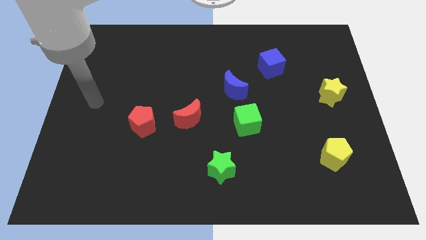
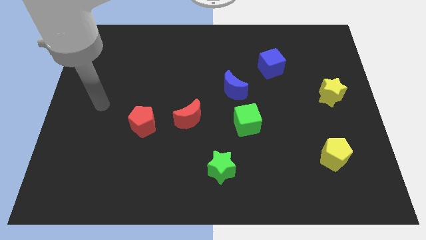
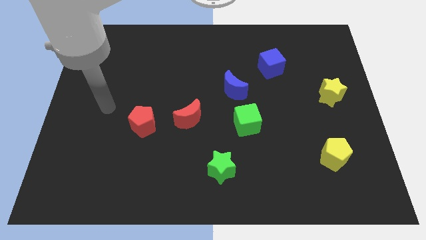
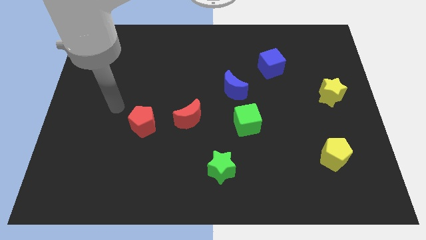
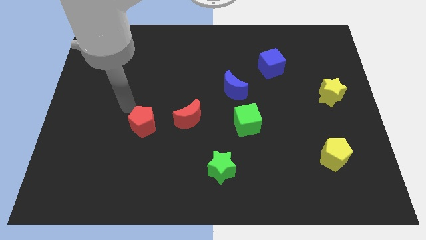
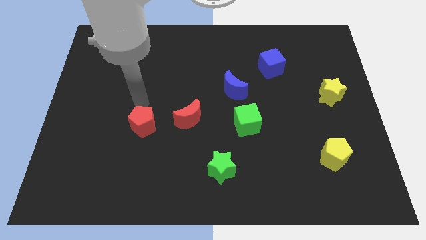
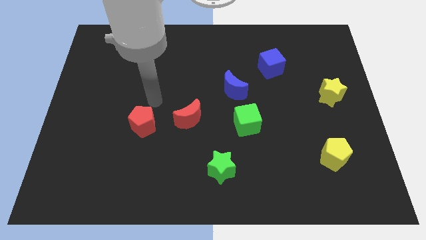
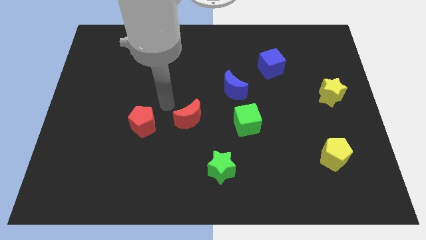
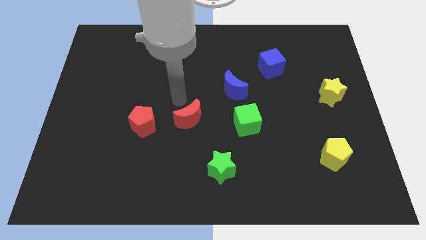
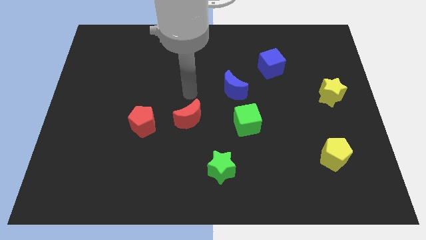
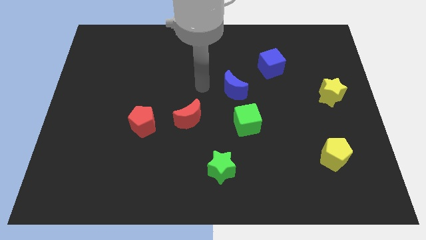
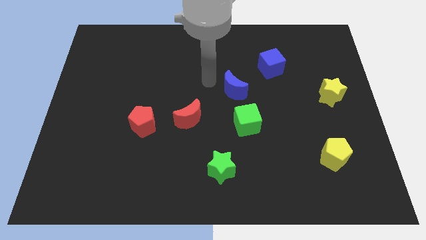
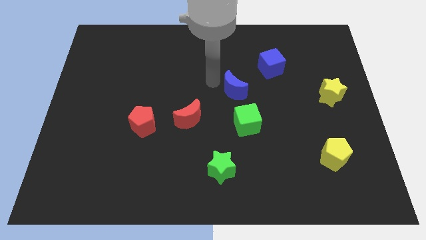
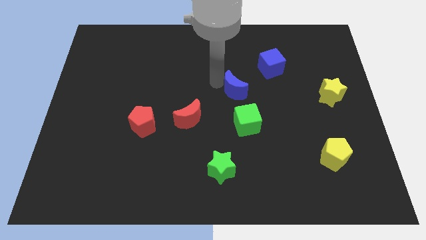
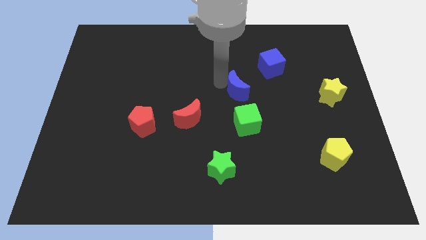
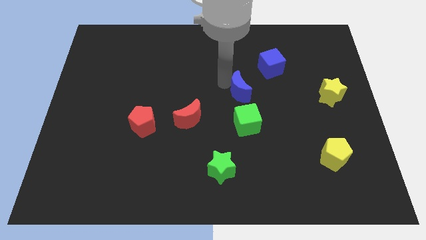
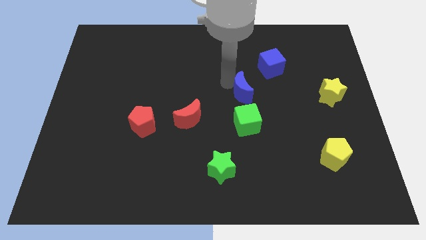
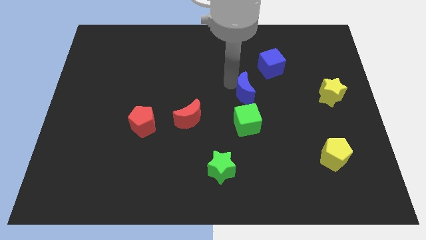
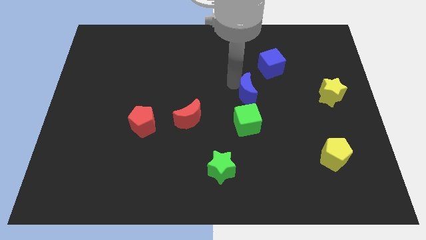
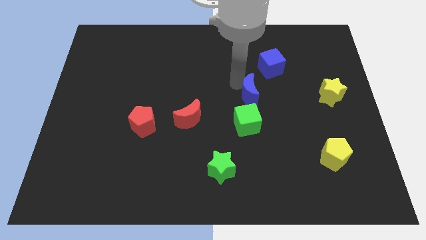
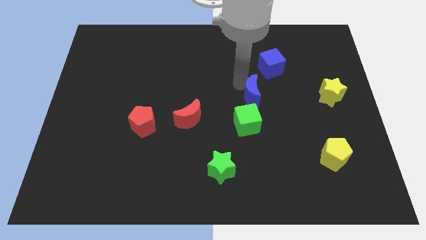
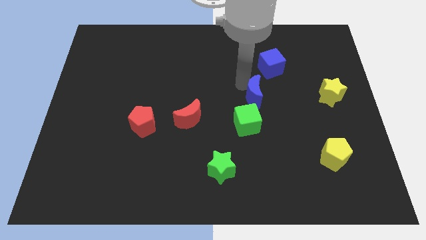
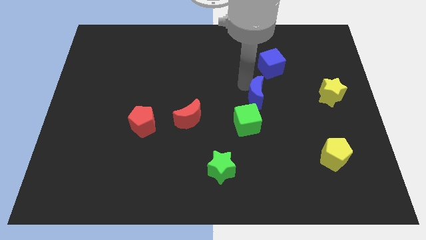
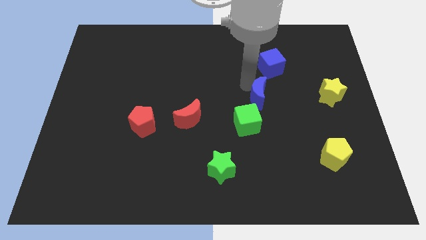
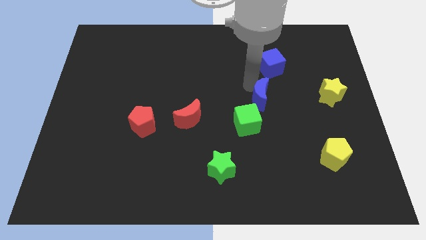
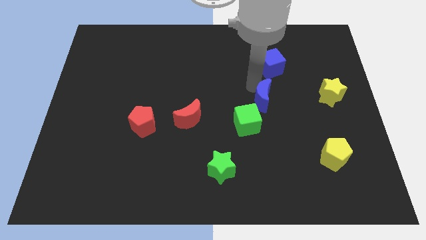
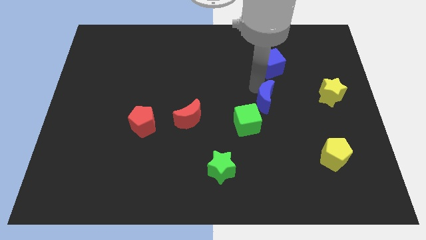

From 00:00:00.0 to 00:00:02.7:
slide the blue moon diagonally down and to the right somewhat

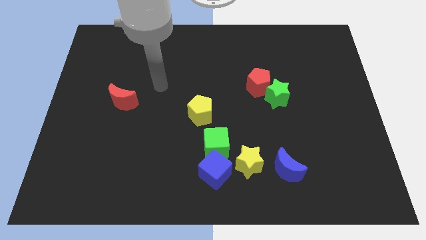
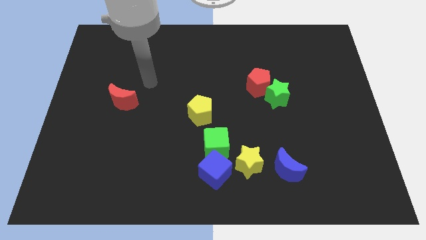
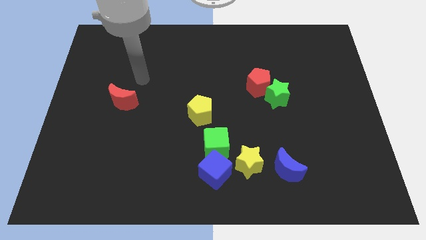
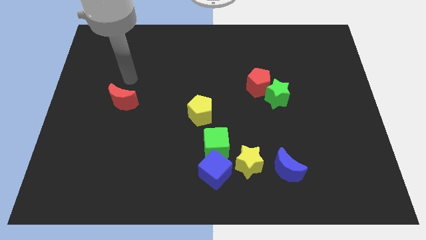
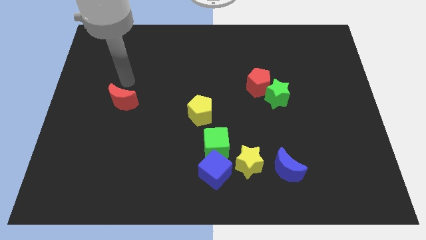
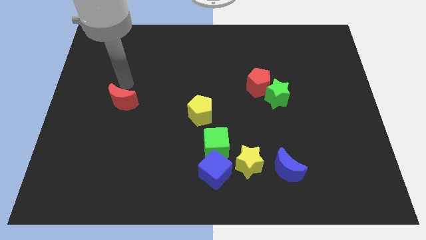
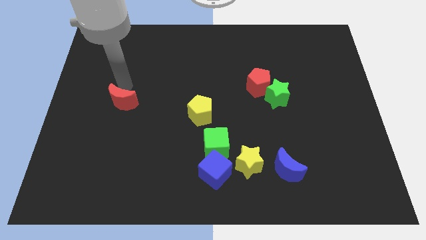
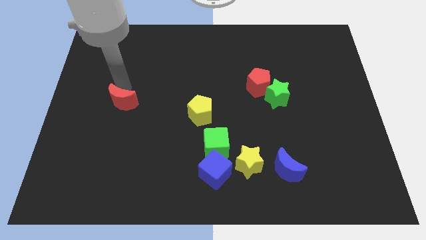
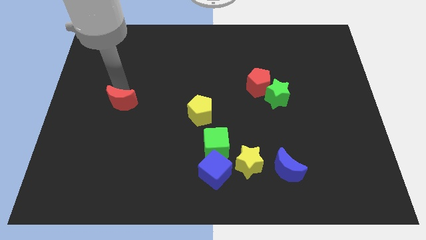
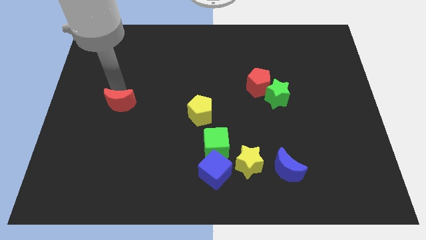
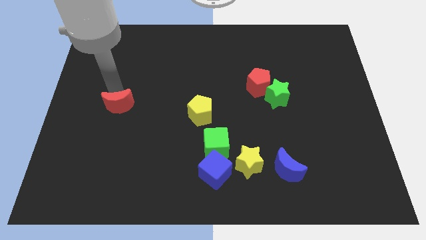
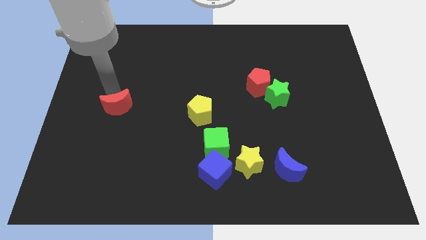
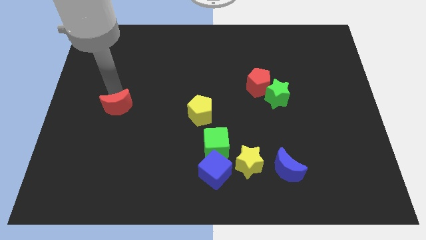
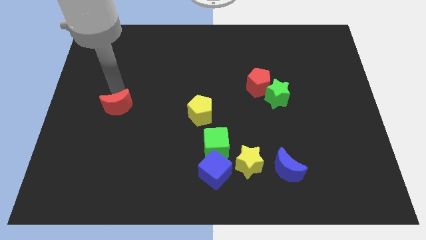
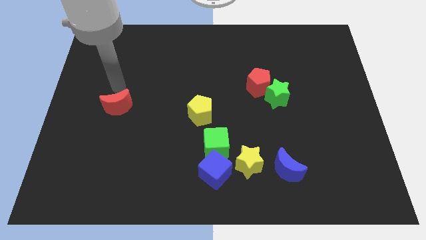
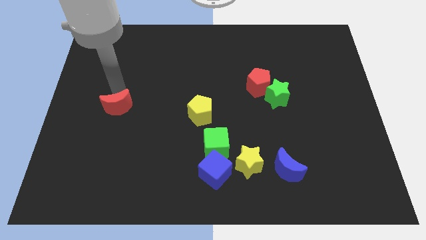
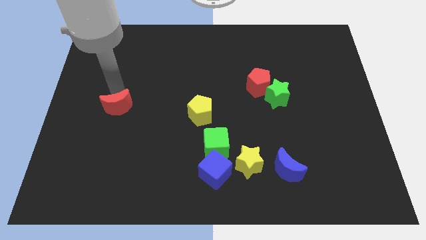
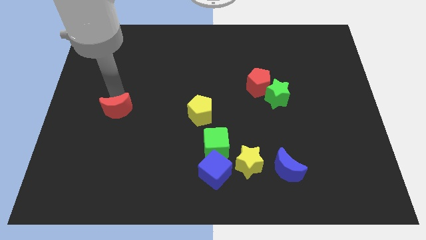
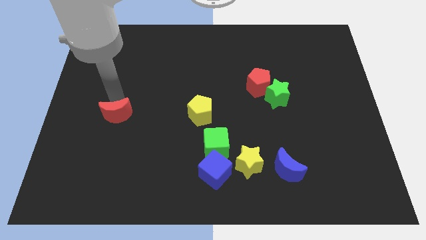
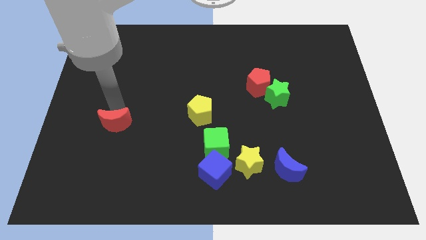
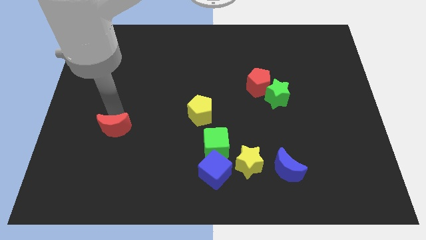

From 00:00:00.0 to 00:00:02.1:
slightly slide the red moon downwards

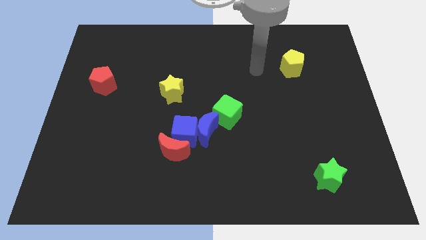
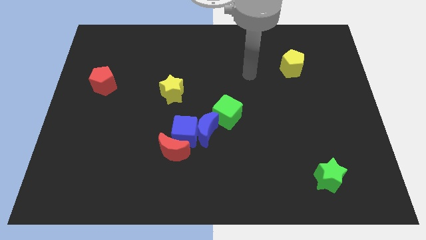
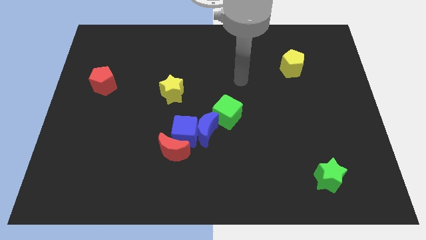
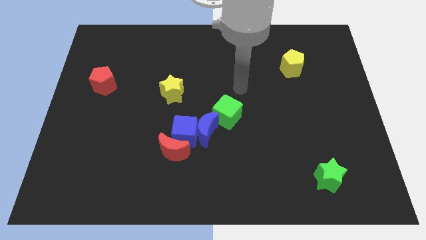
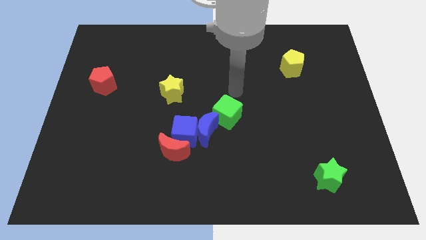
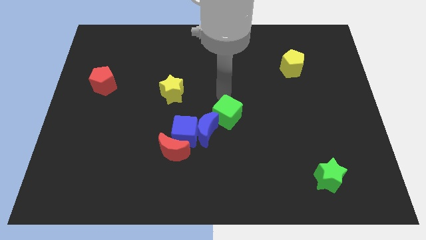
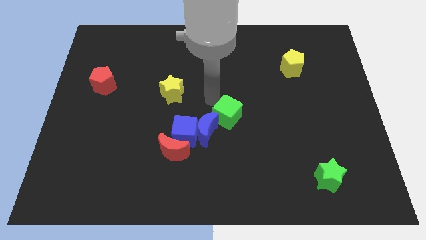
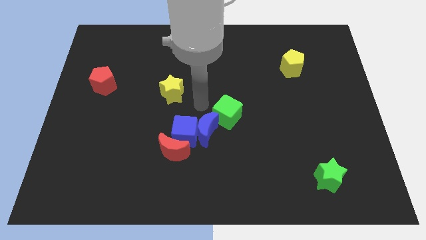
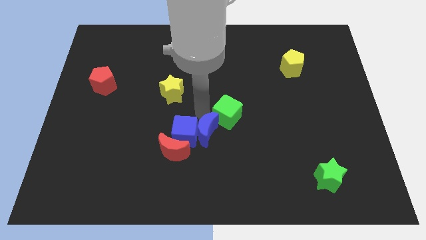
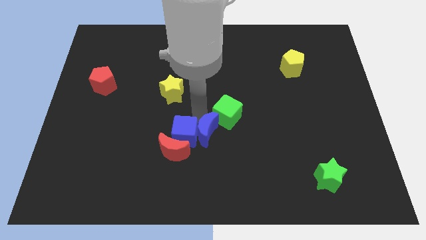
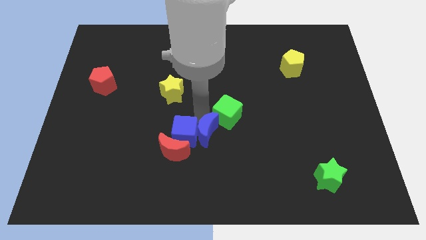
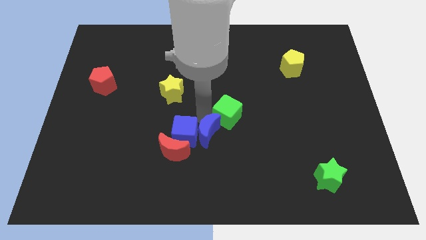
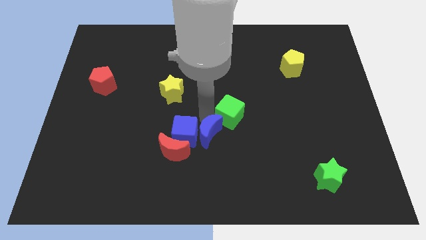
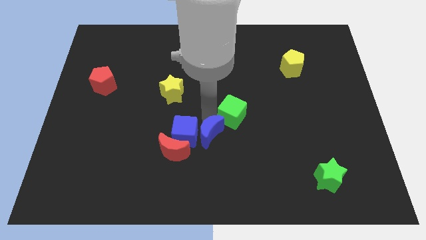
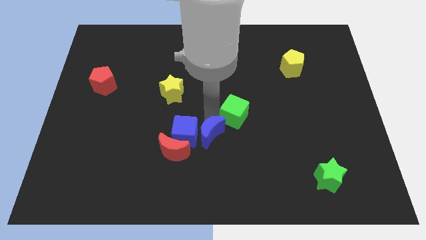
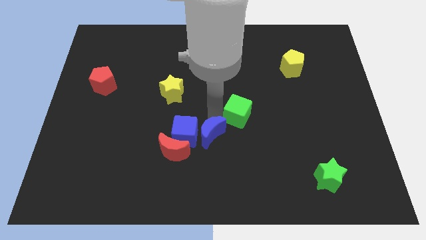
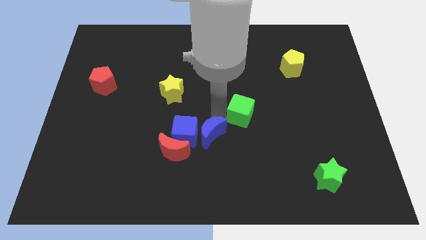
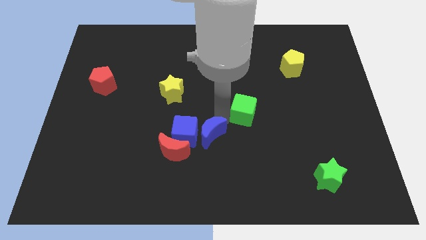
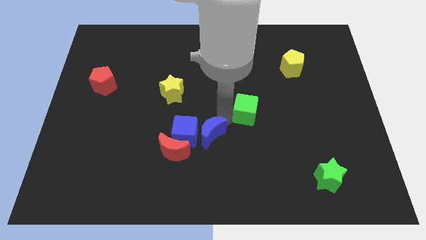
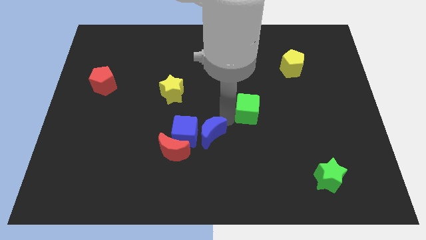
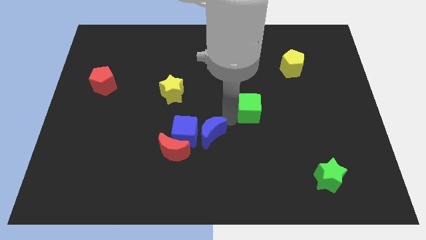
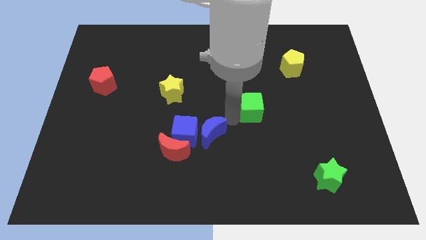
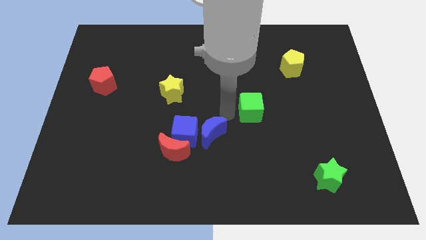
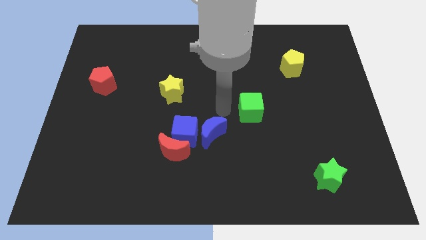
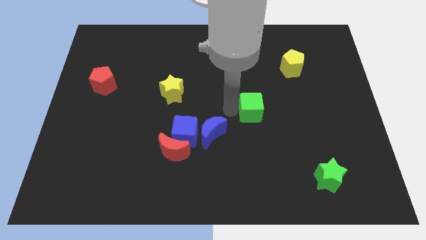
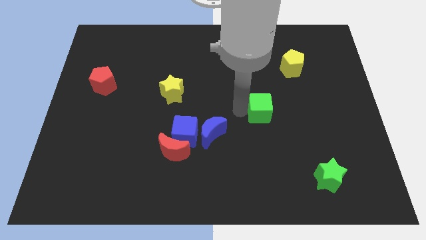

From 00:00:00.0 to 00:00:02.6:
slightly push the green cube right

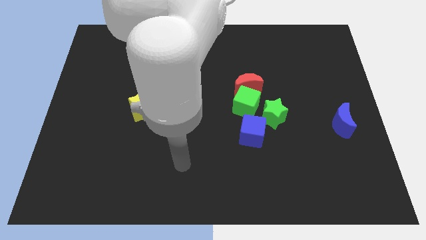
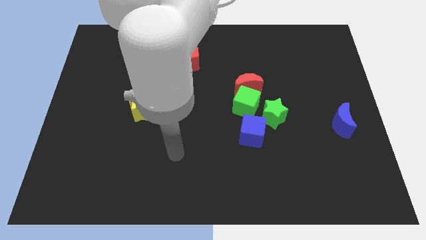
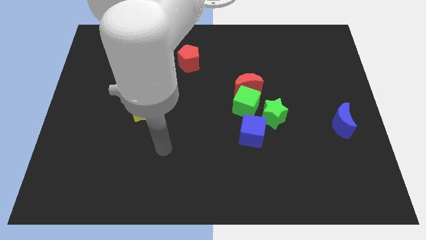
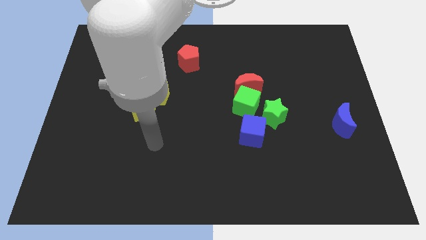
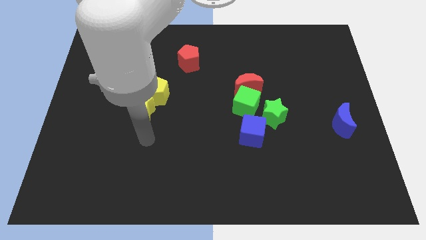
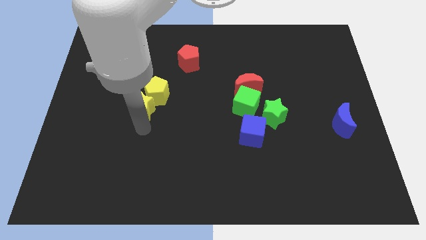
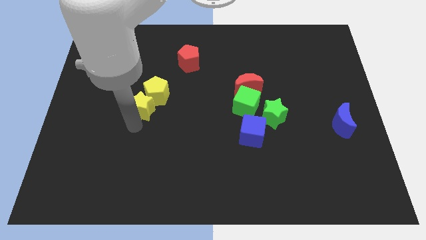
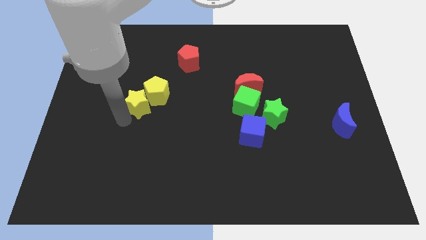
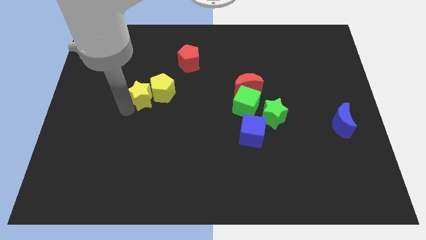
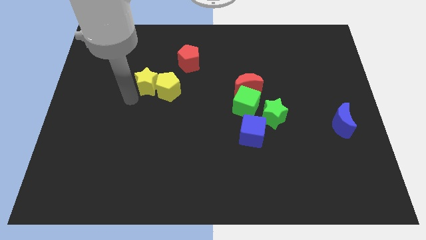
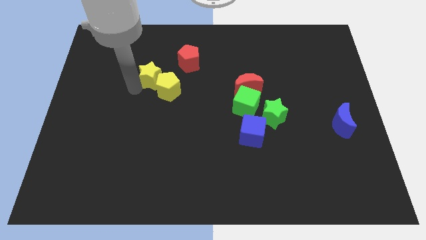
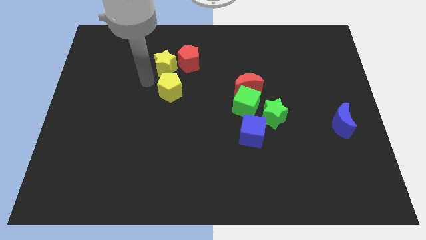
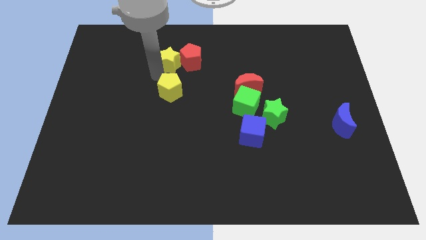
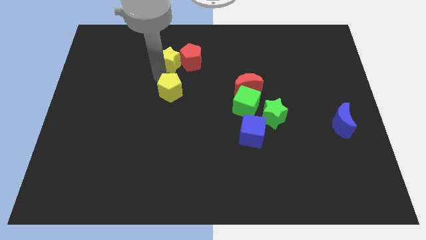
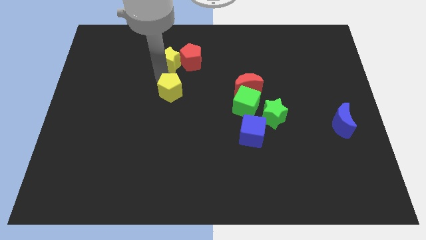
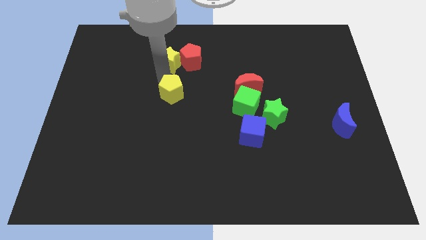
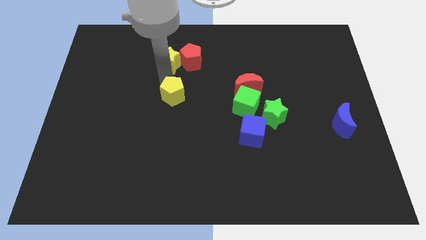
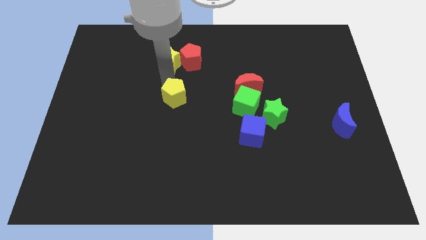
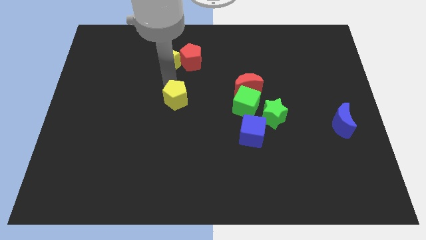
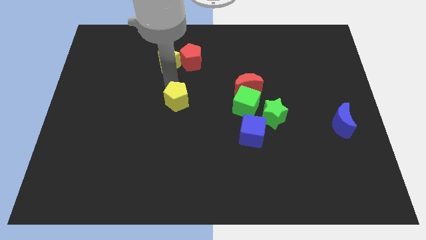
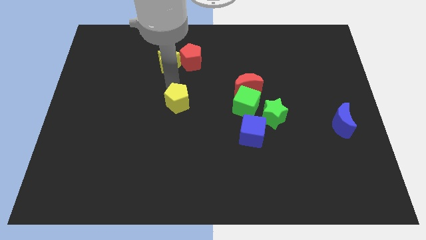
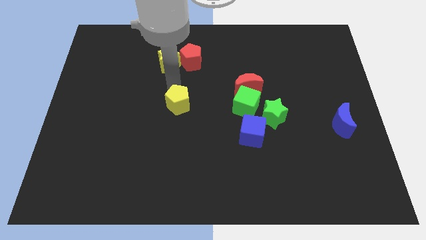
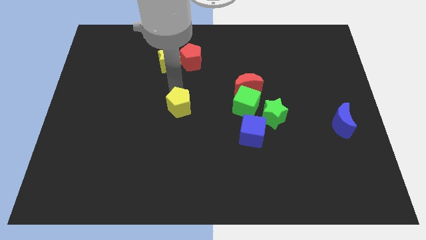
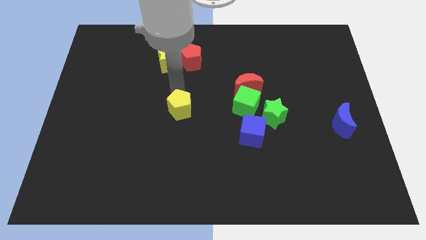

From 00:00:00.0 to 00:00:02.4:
move the yellow pentagon down and to the right somewhat
